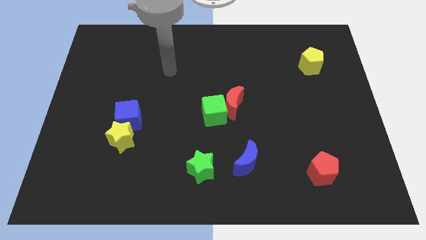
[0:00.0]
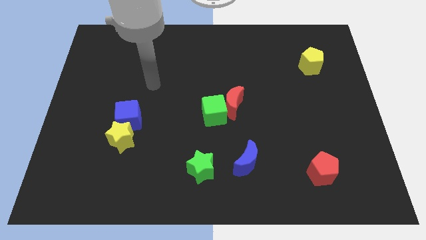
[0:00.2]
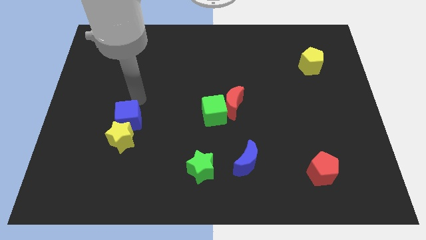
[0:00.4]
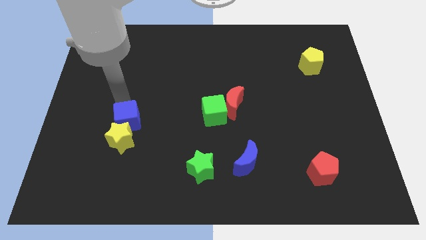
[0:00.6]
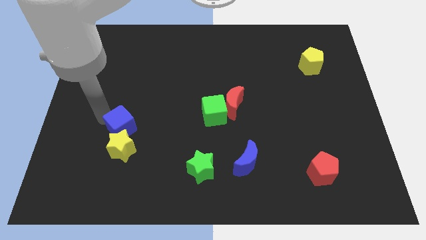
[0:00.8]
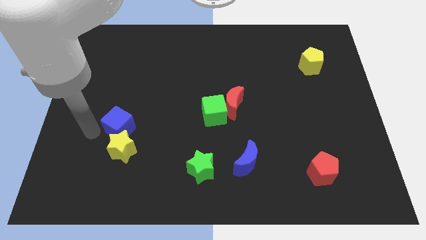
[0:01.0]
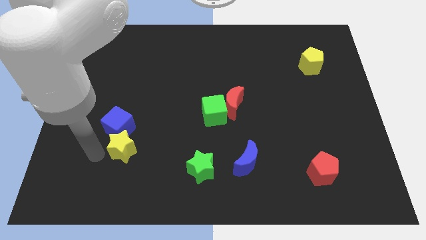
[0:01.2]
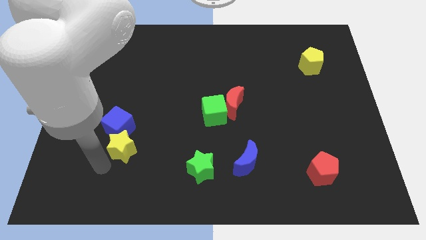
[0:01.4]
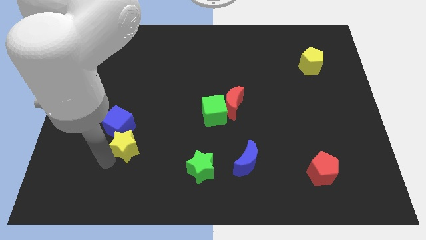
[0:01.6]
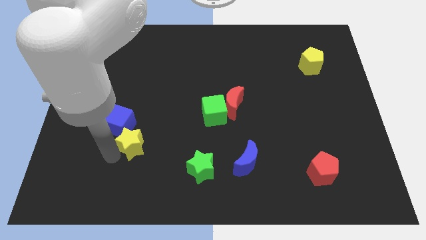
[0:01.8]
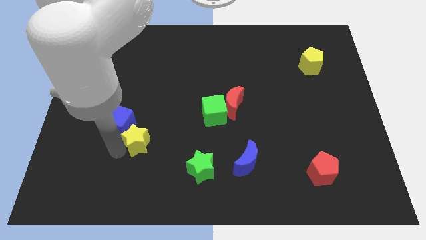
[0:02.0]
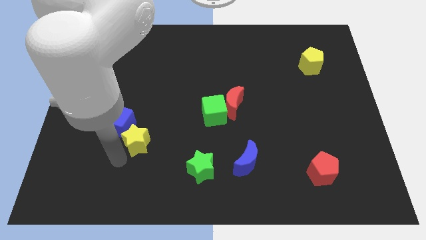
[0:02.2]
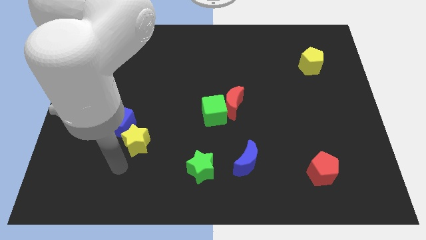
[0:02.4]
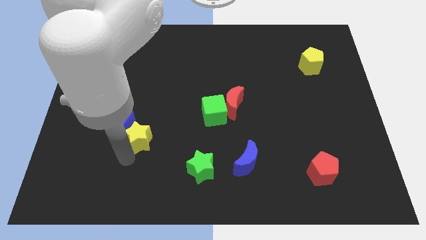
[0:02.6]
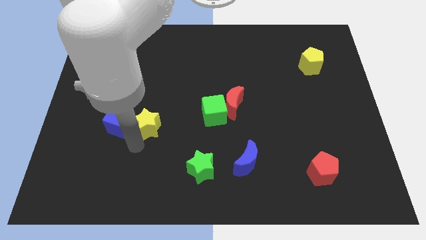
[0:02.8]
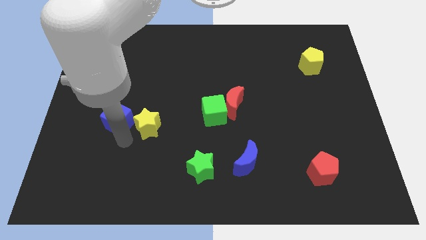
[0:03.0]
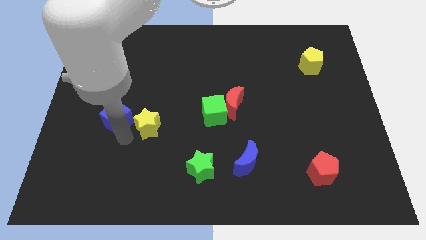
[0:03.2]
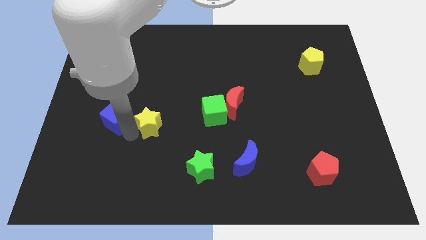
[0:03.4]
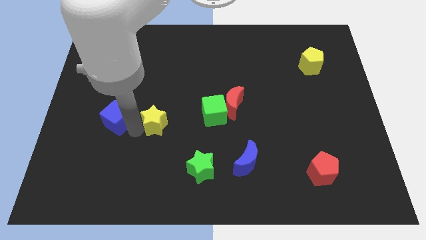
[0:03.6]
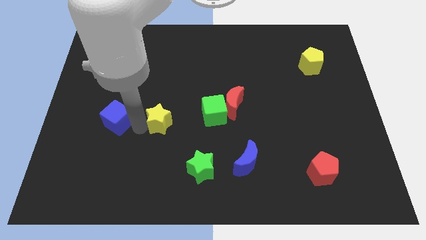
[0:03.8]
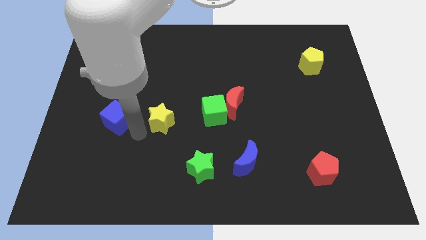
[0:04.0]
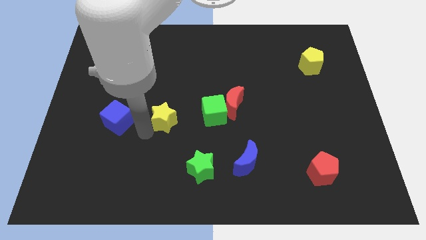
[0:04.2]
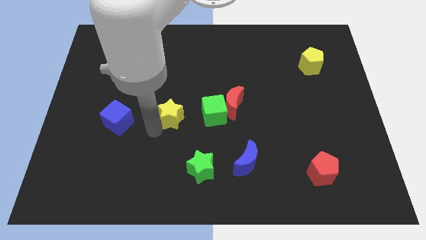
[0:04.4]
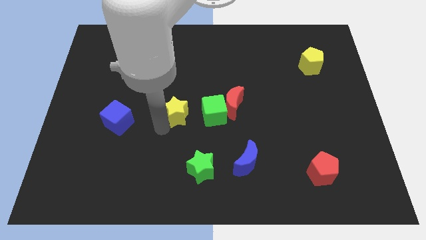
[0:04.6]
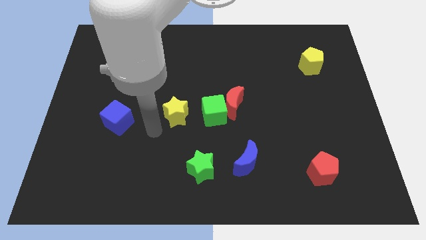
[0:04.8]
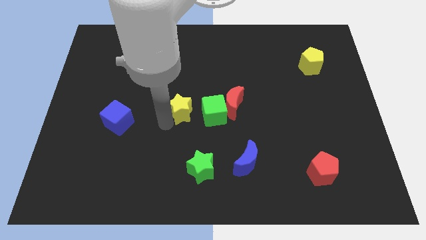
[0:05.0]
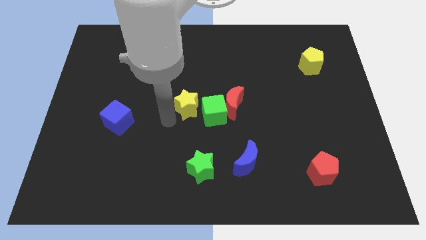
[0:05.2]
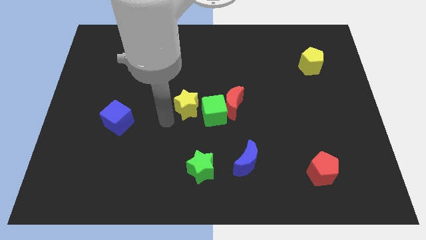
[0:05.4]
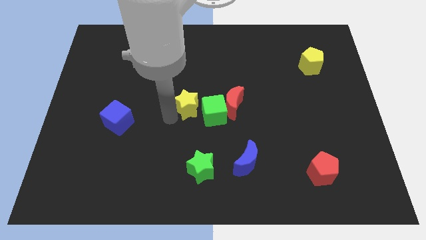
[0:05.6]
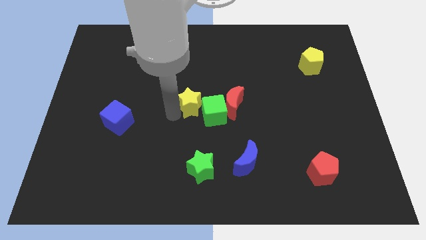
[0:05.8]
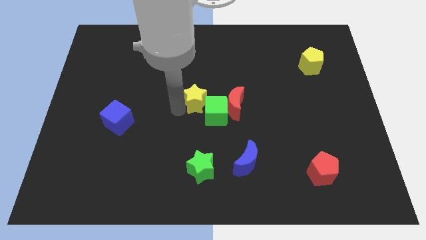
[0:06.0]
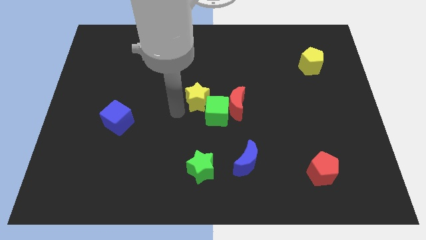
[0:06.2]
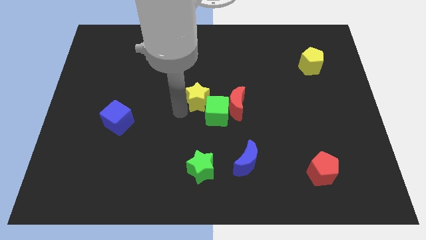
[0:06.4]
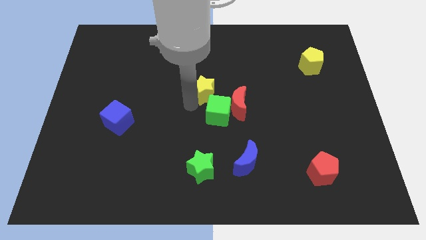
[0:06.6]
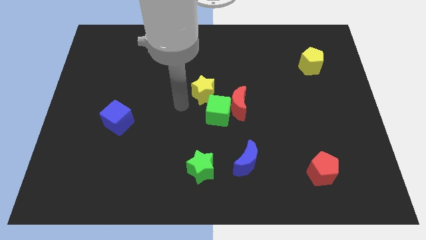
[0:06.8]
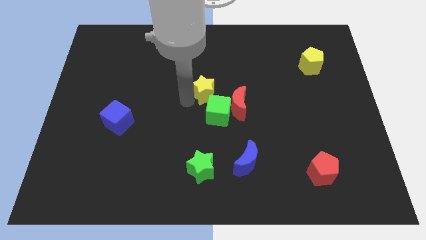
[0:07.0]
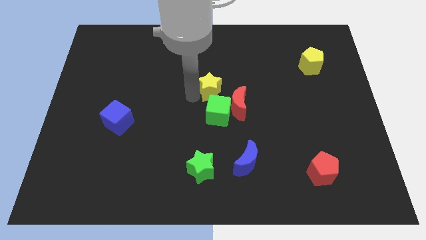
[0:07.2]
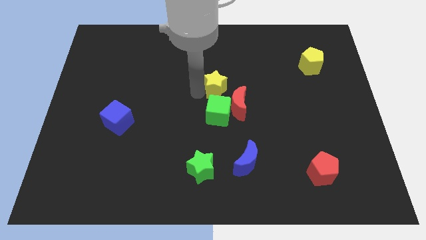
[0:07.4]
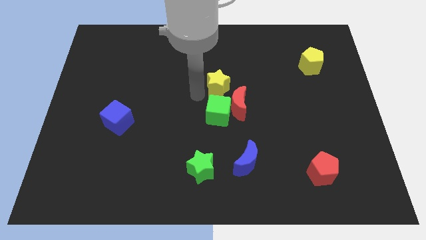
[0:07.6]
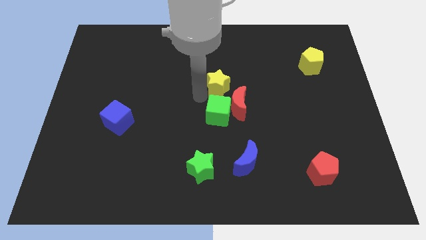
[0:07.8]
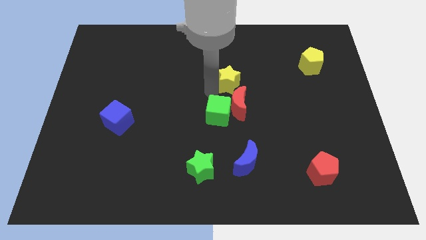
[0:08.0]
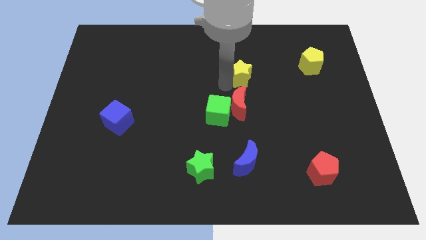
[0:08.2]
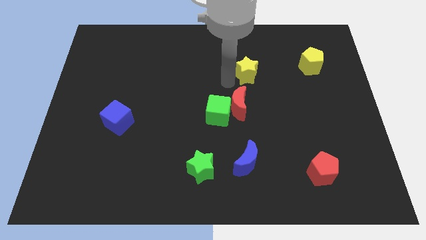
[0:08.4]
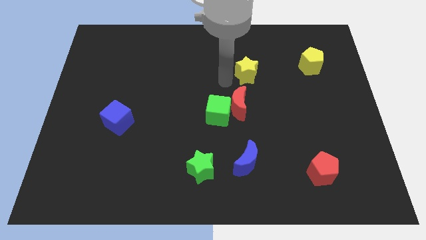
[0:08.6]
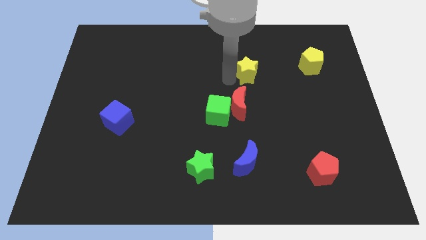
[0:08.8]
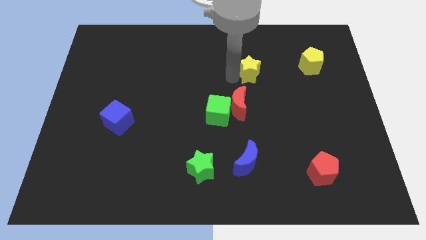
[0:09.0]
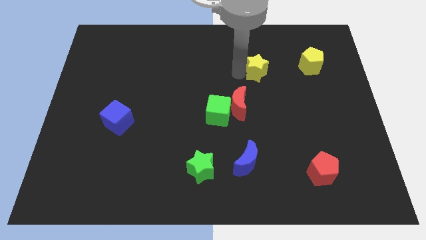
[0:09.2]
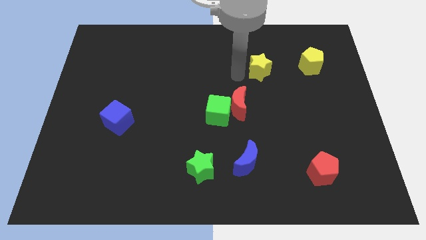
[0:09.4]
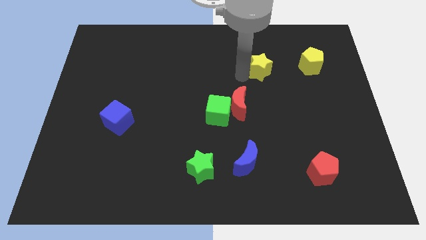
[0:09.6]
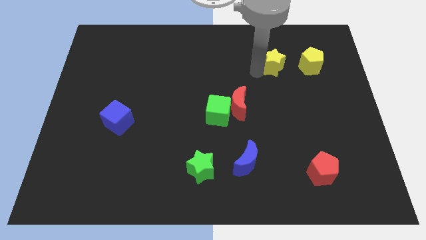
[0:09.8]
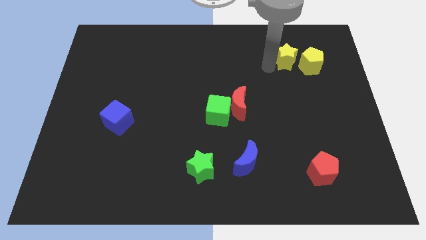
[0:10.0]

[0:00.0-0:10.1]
slide the yellow star towards the yellow pentagon

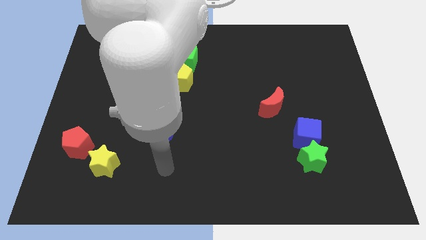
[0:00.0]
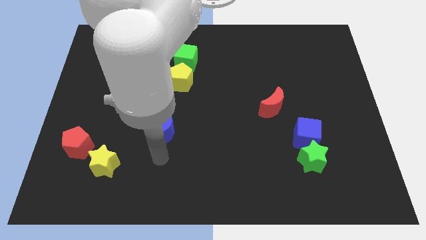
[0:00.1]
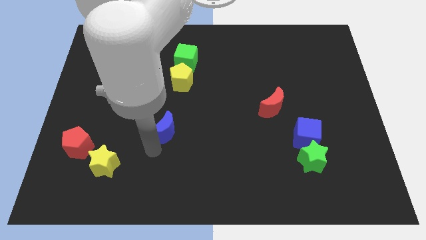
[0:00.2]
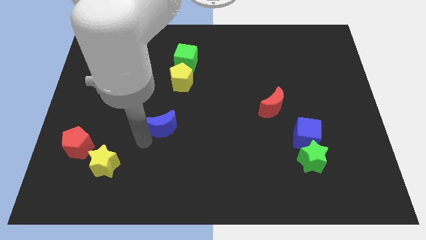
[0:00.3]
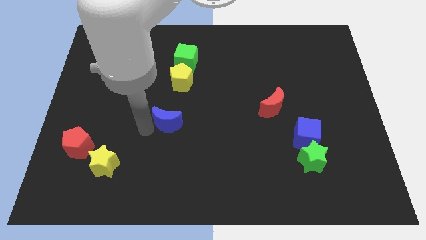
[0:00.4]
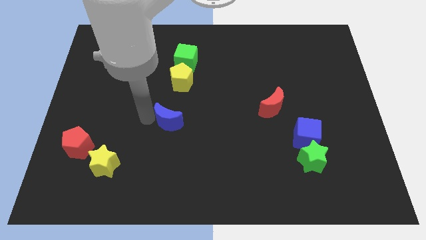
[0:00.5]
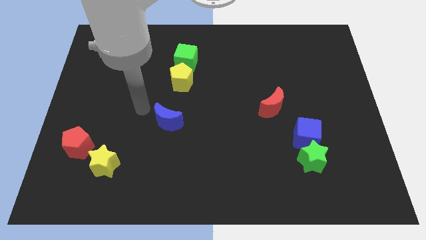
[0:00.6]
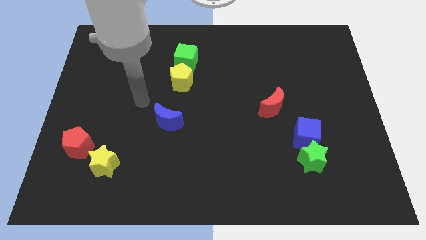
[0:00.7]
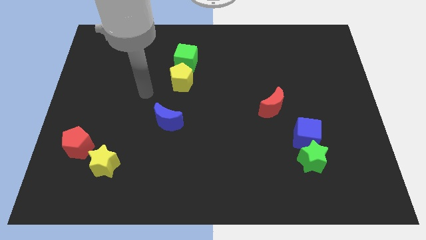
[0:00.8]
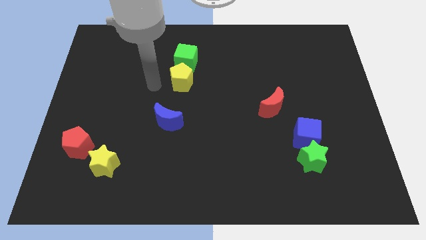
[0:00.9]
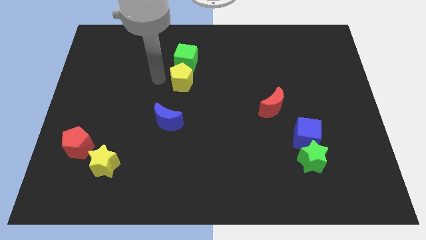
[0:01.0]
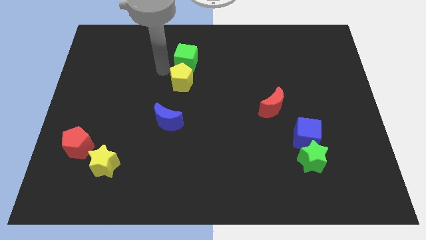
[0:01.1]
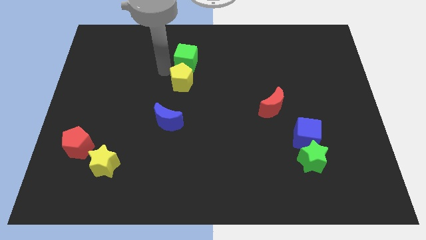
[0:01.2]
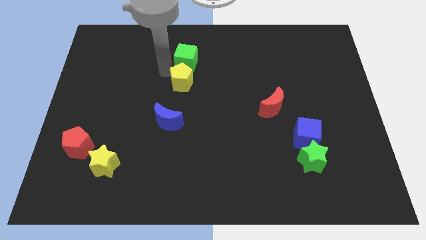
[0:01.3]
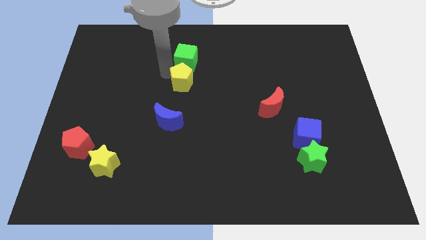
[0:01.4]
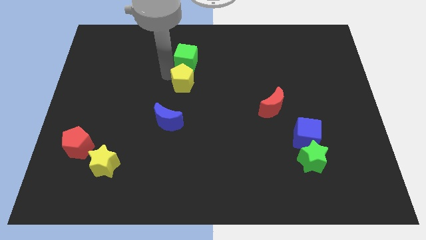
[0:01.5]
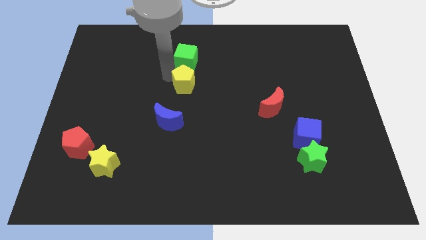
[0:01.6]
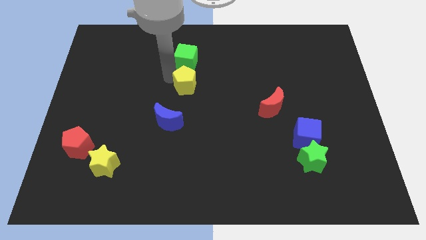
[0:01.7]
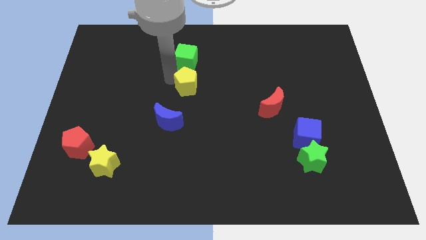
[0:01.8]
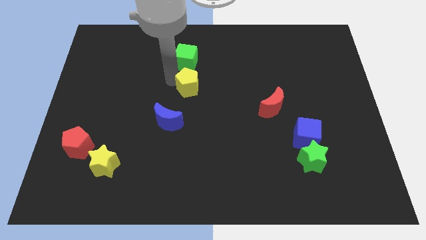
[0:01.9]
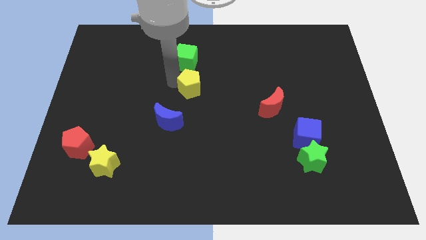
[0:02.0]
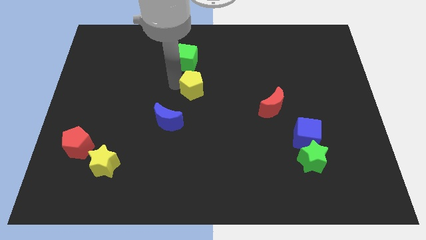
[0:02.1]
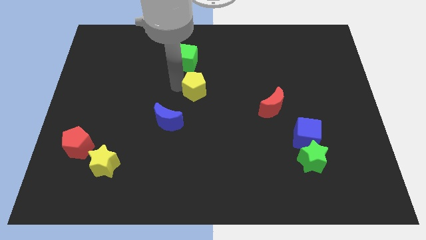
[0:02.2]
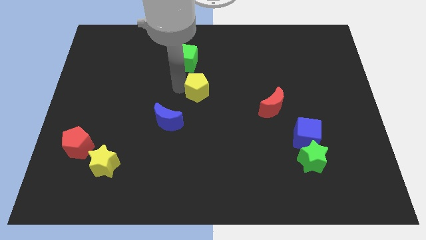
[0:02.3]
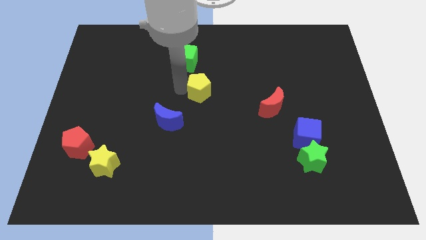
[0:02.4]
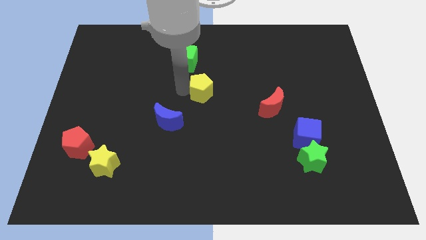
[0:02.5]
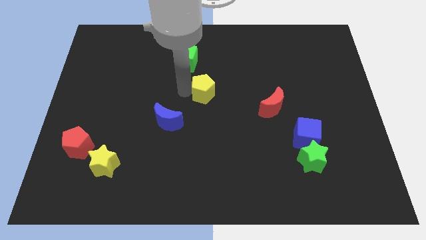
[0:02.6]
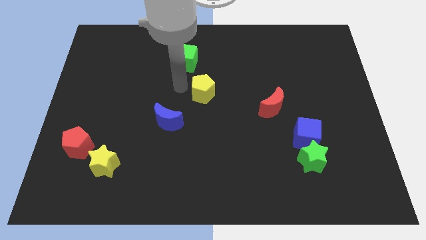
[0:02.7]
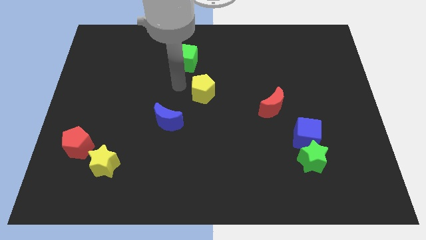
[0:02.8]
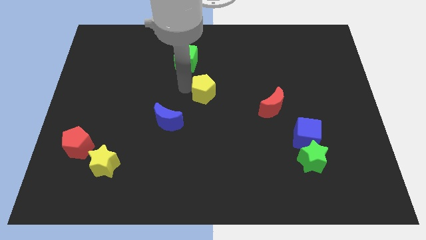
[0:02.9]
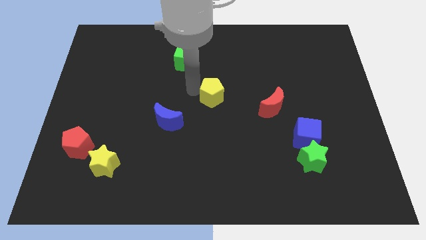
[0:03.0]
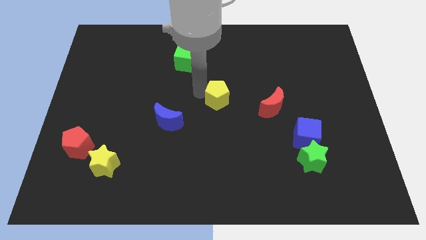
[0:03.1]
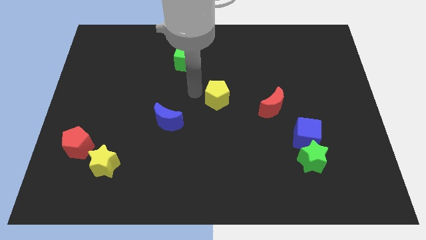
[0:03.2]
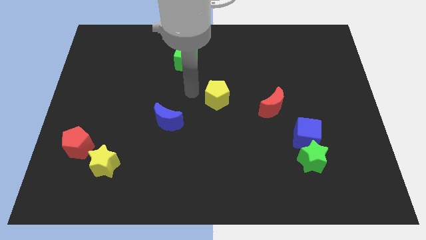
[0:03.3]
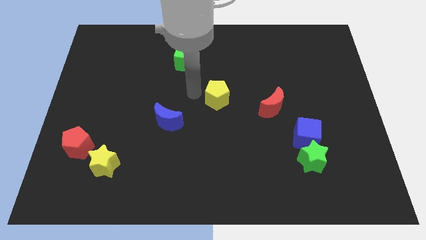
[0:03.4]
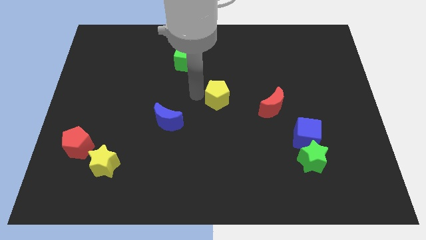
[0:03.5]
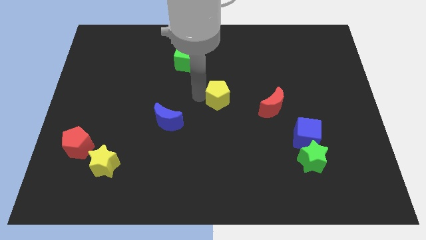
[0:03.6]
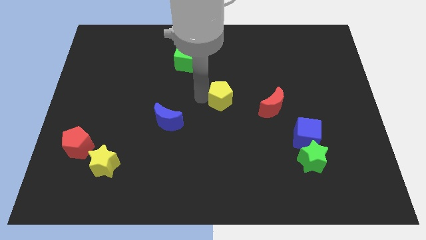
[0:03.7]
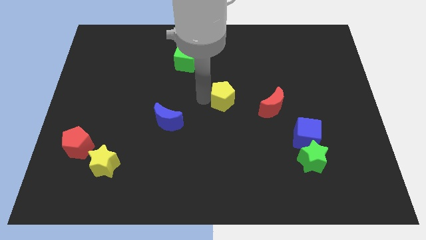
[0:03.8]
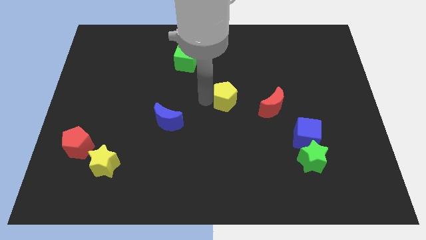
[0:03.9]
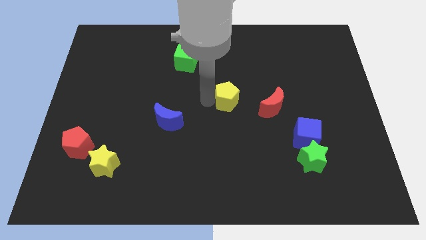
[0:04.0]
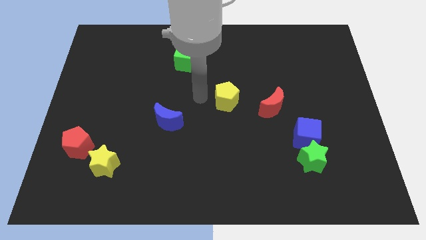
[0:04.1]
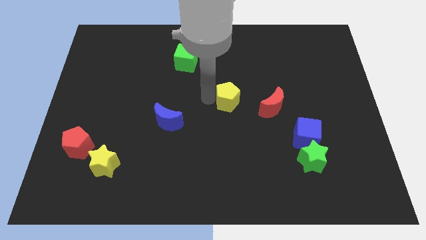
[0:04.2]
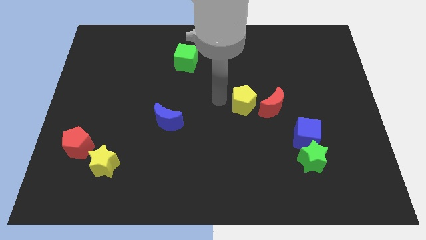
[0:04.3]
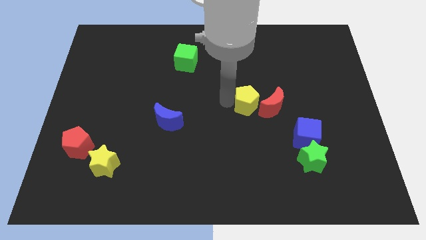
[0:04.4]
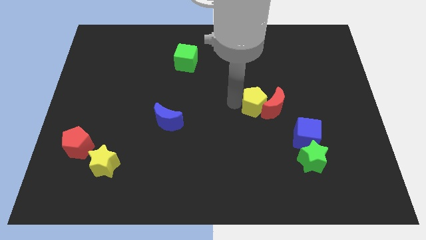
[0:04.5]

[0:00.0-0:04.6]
push the yellow pentagon close to the red moon
